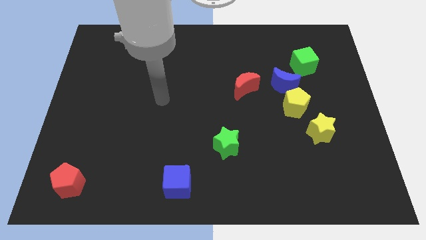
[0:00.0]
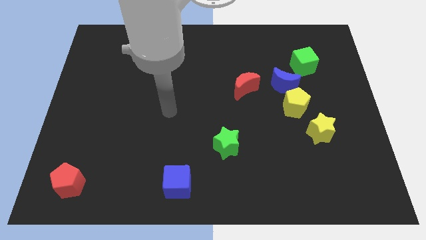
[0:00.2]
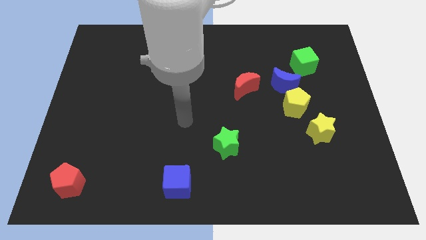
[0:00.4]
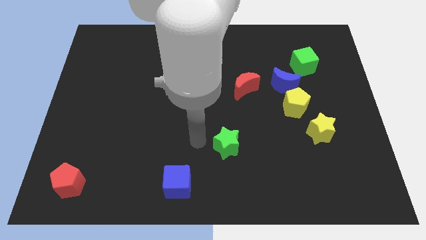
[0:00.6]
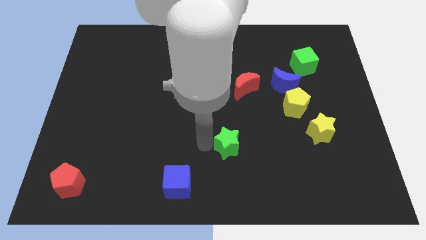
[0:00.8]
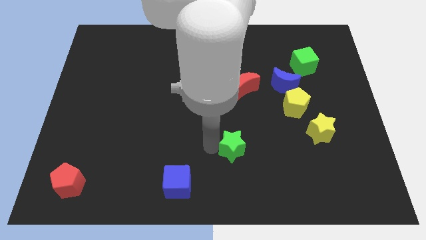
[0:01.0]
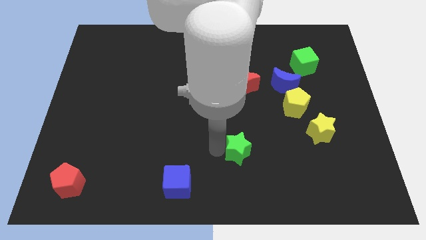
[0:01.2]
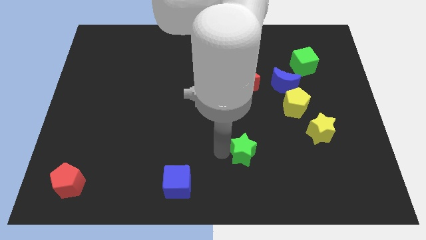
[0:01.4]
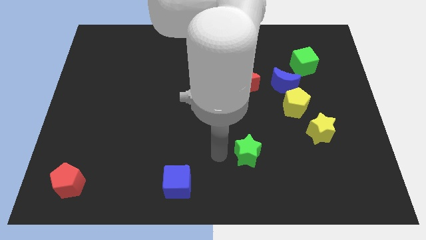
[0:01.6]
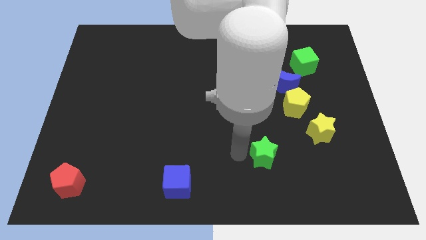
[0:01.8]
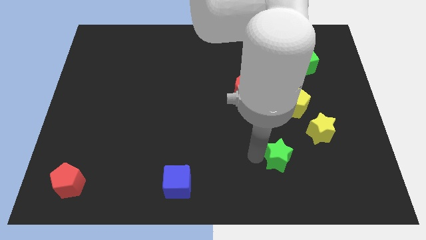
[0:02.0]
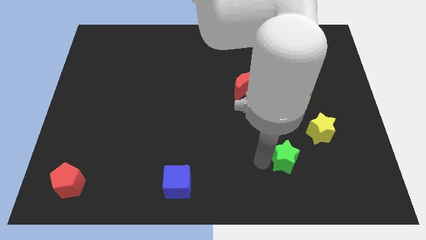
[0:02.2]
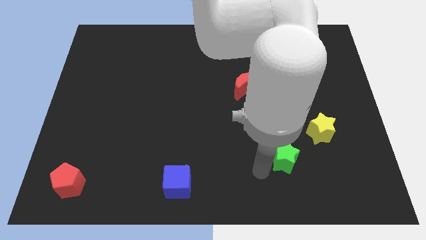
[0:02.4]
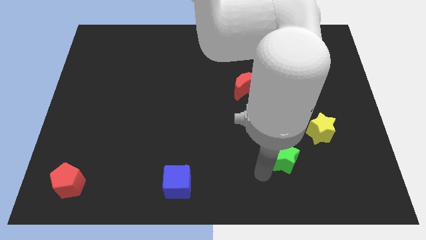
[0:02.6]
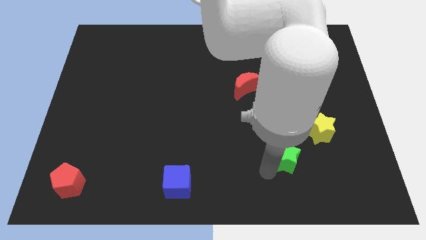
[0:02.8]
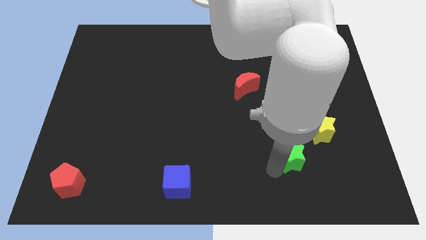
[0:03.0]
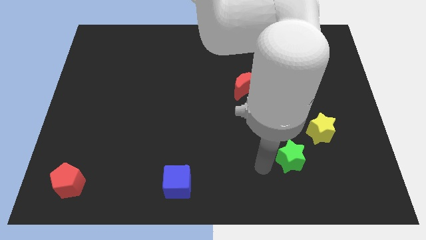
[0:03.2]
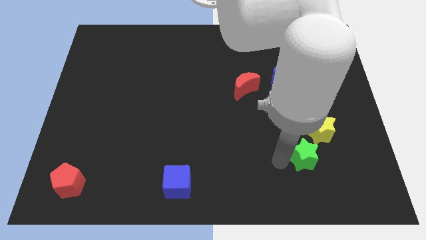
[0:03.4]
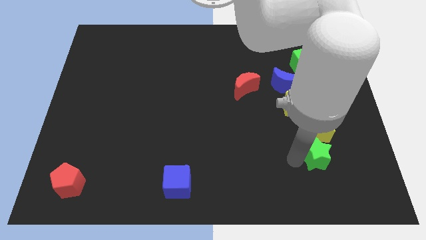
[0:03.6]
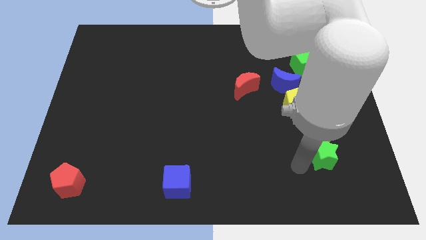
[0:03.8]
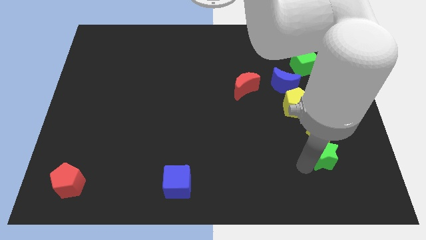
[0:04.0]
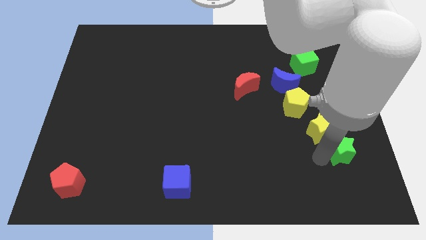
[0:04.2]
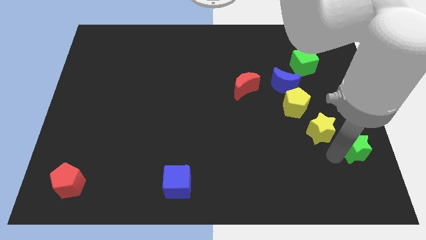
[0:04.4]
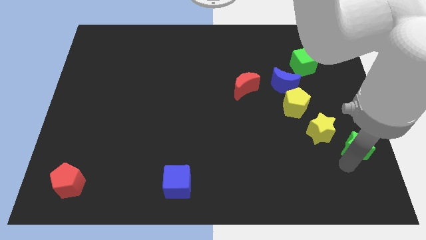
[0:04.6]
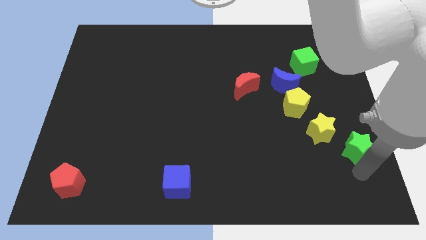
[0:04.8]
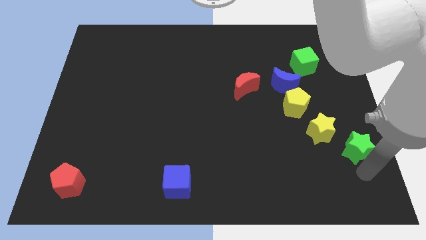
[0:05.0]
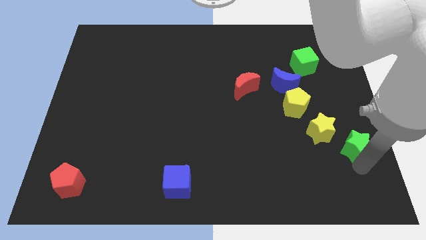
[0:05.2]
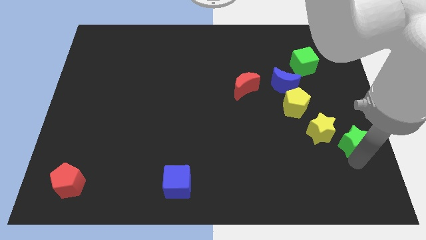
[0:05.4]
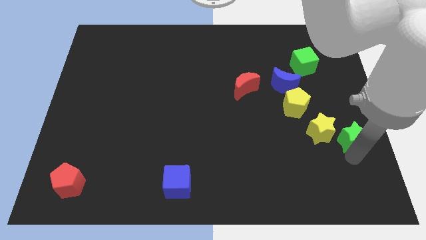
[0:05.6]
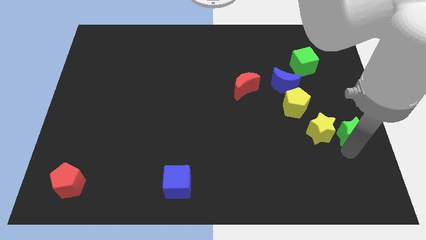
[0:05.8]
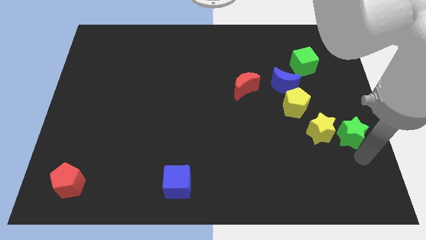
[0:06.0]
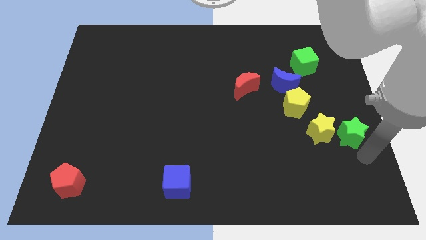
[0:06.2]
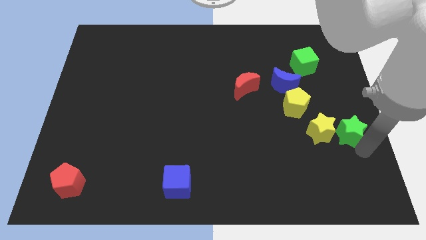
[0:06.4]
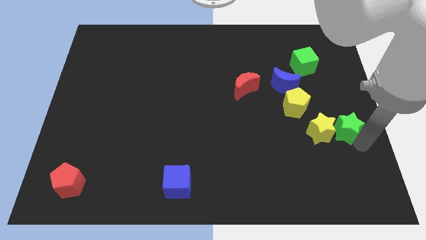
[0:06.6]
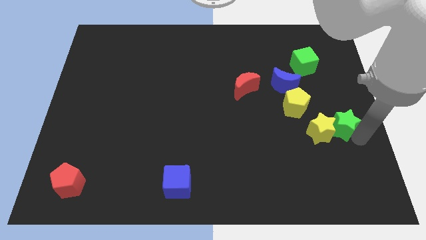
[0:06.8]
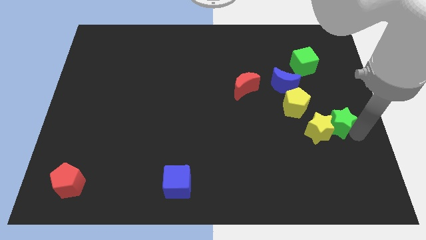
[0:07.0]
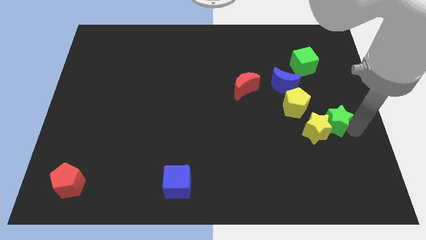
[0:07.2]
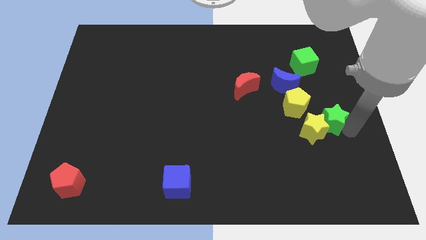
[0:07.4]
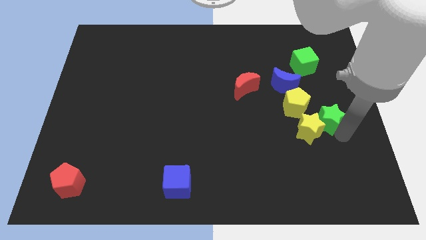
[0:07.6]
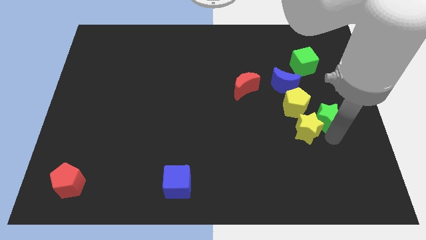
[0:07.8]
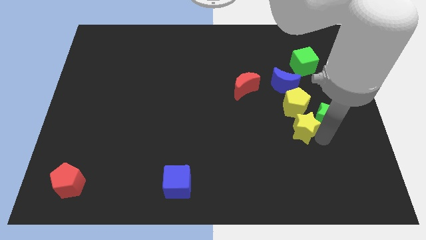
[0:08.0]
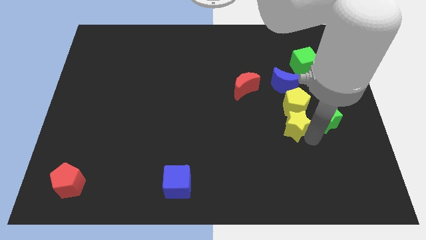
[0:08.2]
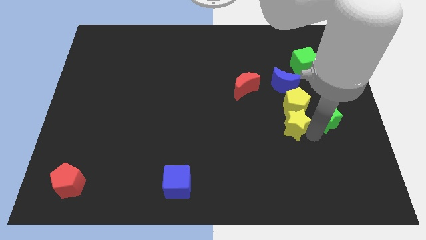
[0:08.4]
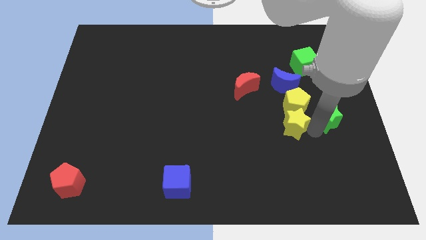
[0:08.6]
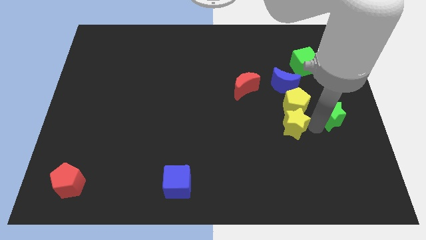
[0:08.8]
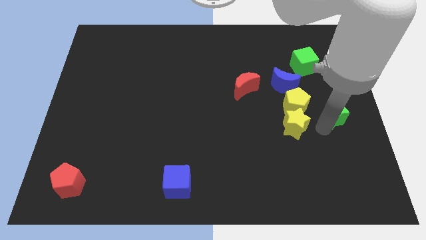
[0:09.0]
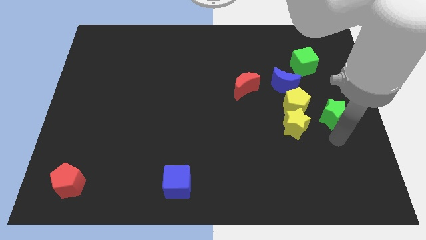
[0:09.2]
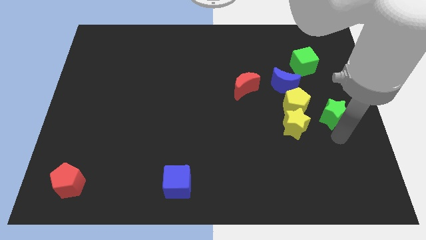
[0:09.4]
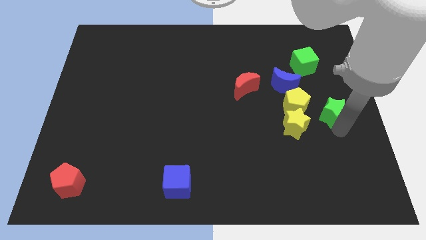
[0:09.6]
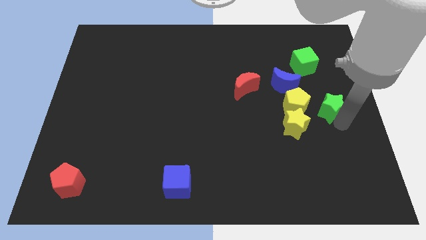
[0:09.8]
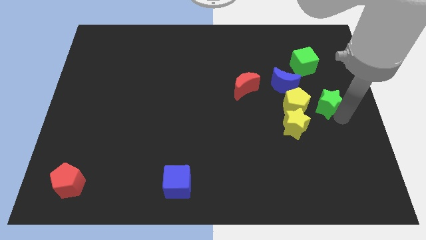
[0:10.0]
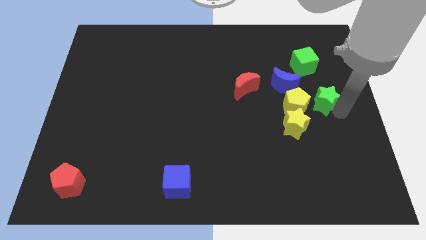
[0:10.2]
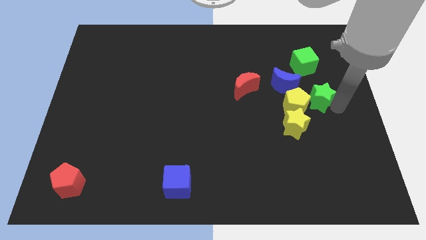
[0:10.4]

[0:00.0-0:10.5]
move the green star to the right of the blue moon

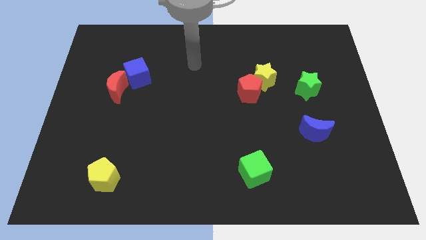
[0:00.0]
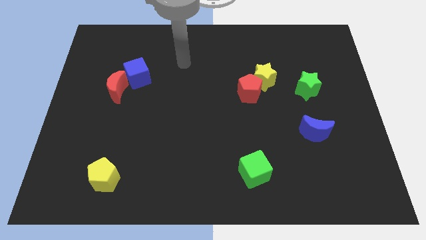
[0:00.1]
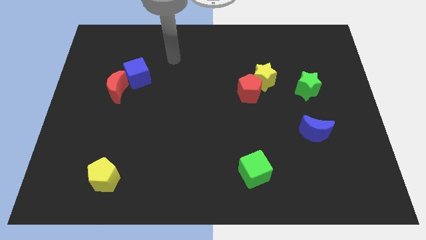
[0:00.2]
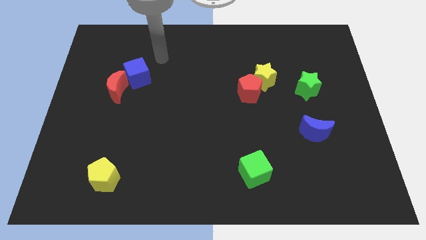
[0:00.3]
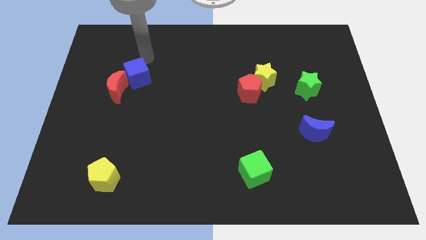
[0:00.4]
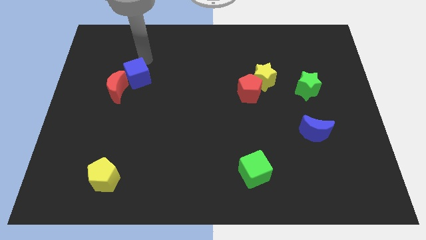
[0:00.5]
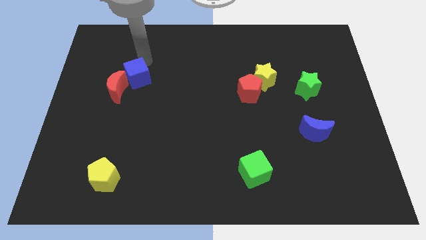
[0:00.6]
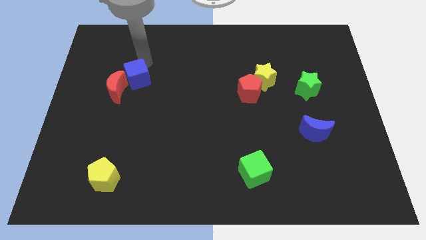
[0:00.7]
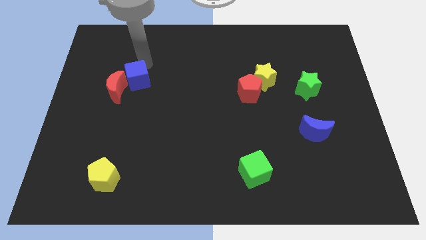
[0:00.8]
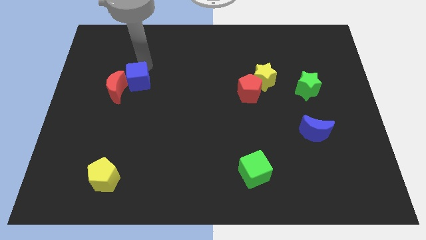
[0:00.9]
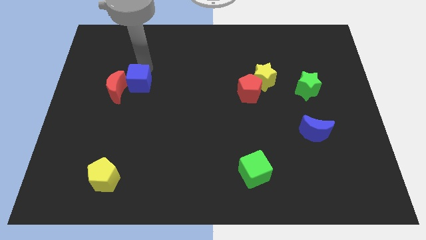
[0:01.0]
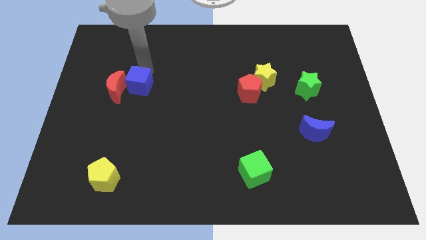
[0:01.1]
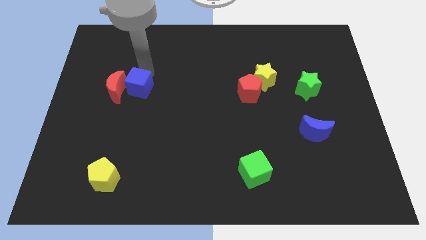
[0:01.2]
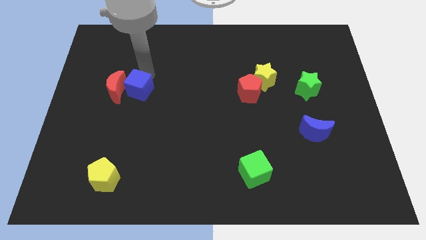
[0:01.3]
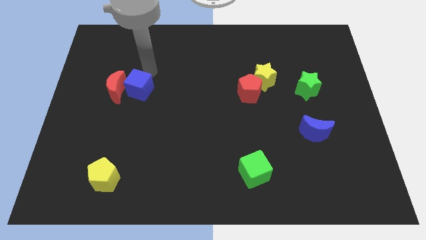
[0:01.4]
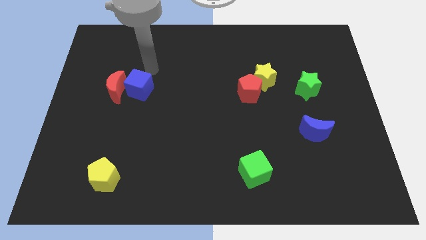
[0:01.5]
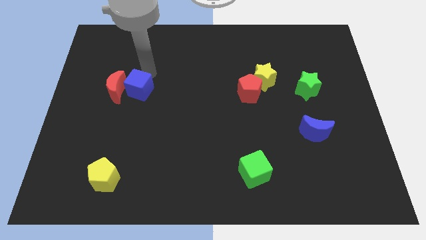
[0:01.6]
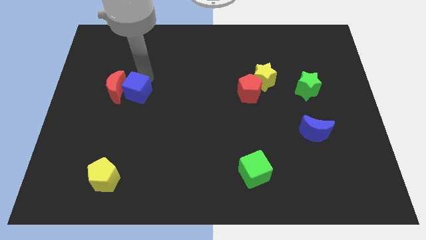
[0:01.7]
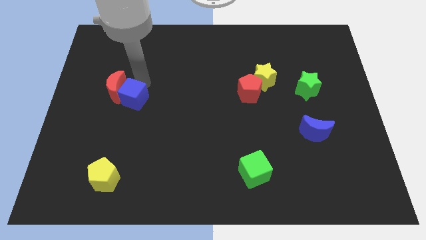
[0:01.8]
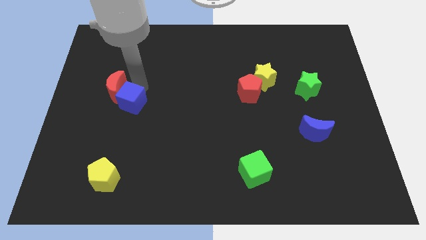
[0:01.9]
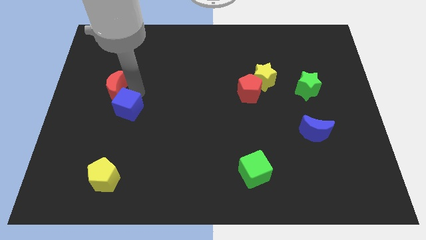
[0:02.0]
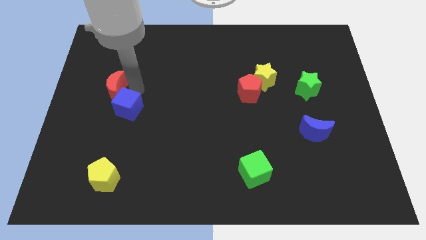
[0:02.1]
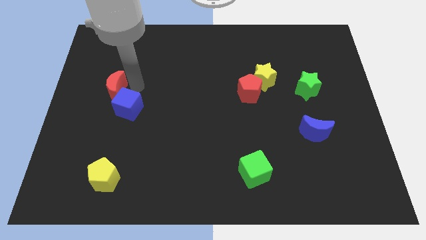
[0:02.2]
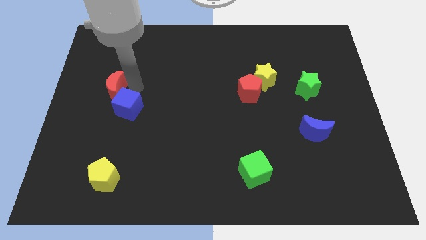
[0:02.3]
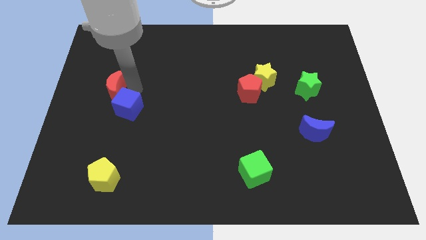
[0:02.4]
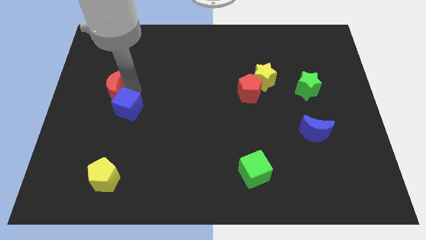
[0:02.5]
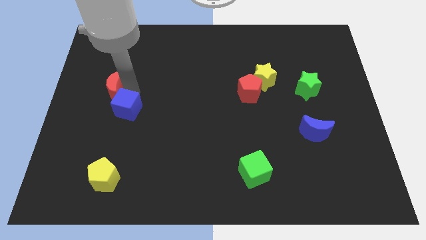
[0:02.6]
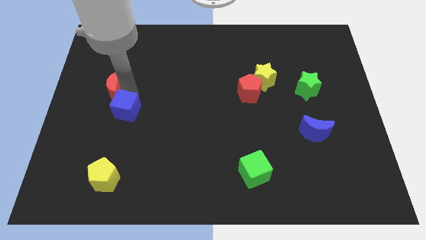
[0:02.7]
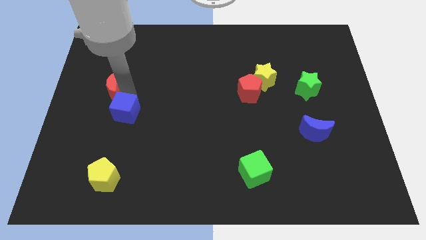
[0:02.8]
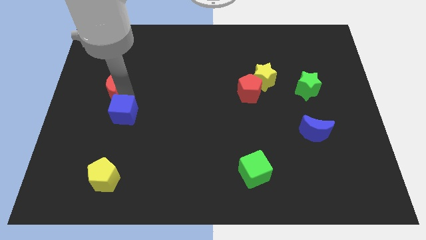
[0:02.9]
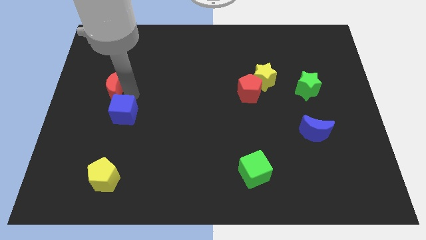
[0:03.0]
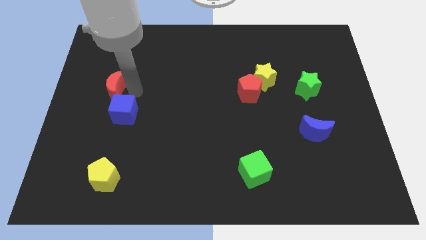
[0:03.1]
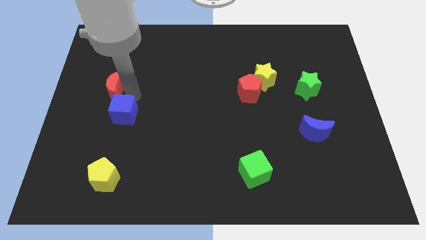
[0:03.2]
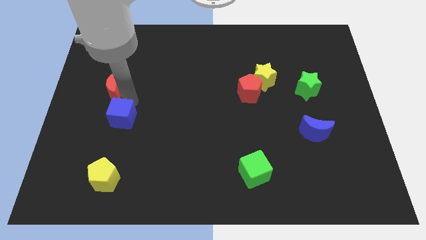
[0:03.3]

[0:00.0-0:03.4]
move the blue cube above the yellow pentagon
